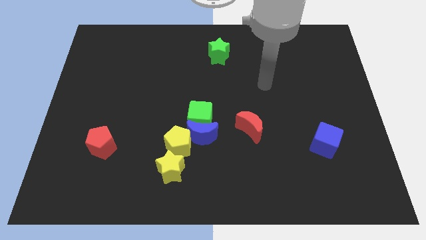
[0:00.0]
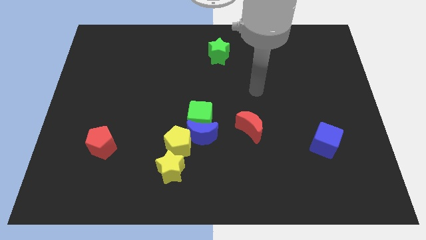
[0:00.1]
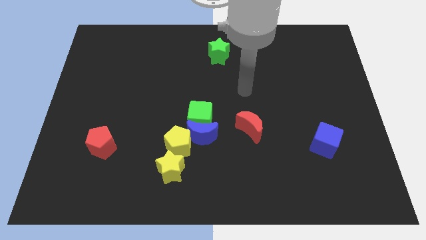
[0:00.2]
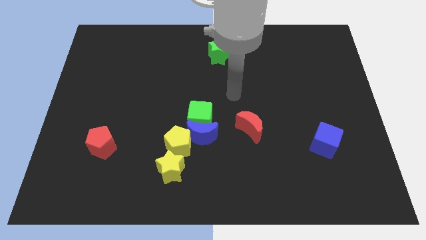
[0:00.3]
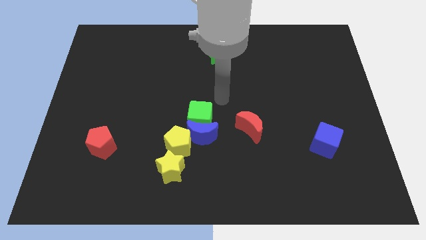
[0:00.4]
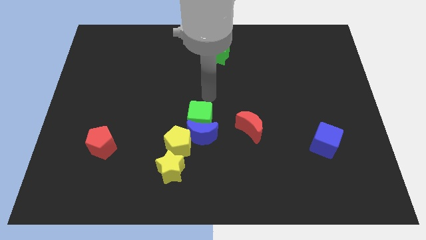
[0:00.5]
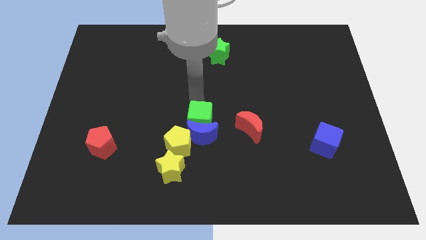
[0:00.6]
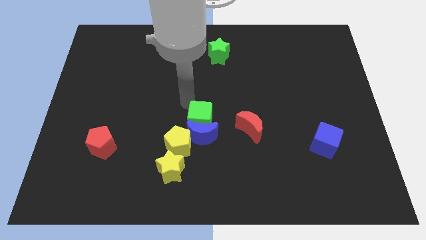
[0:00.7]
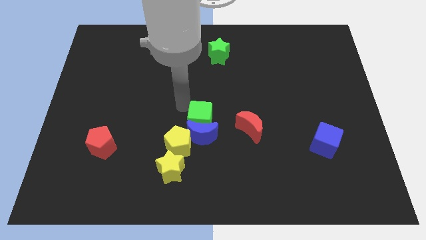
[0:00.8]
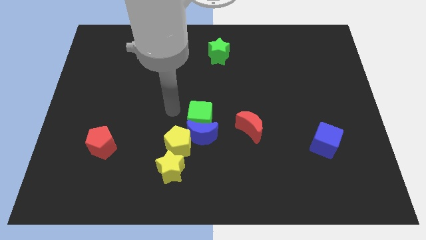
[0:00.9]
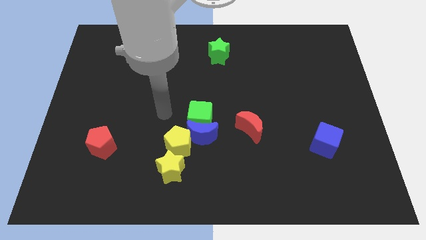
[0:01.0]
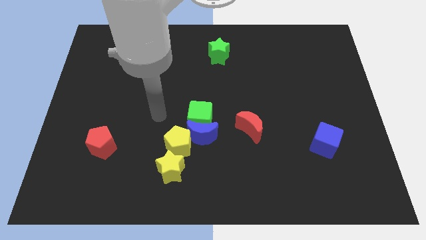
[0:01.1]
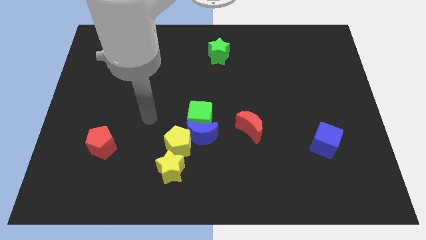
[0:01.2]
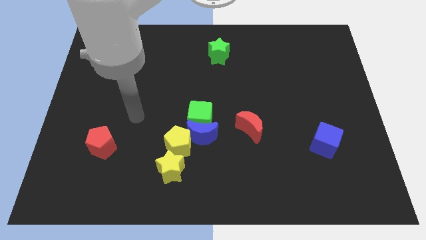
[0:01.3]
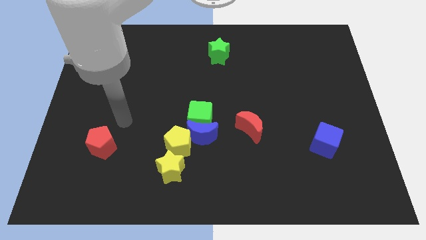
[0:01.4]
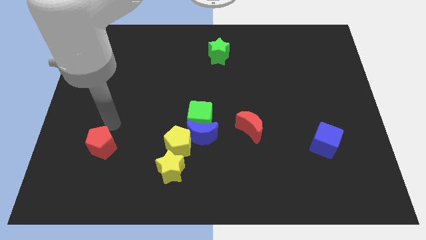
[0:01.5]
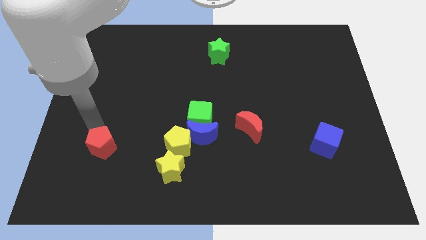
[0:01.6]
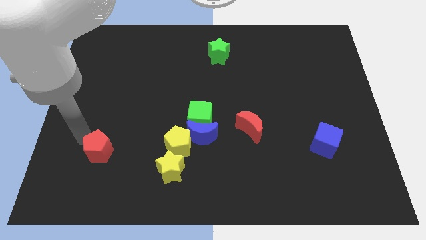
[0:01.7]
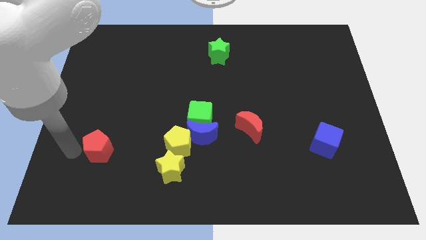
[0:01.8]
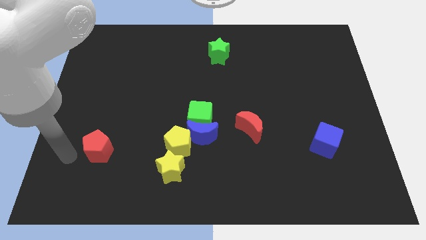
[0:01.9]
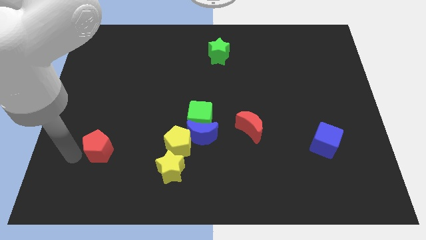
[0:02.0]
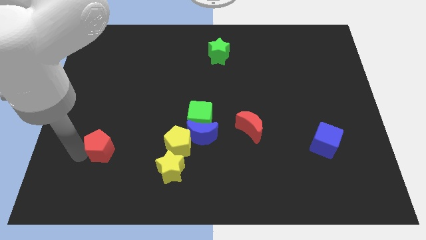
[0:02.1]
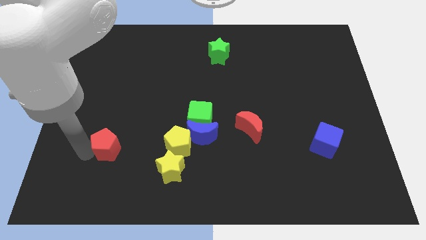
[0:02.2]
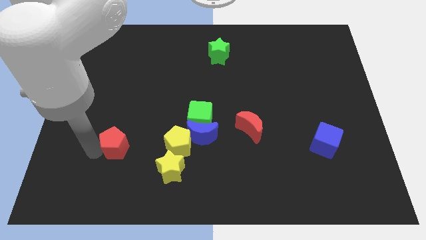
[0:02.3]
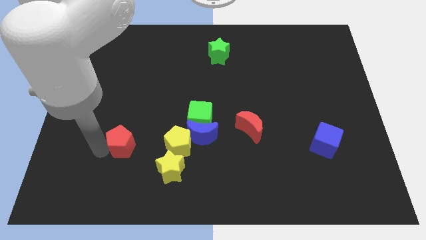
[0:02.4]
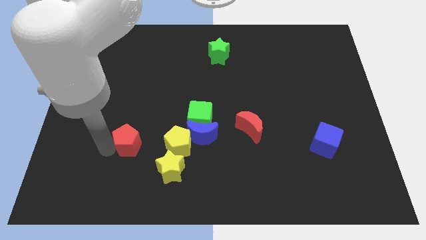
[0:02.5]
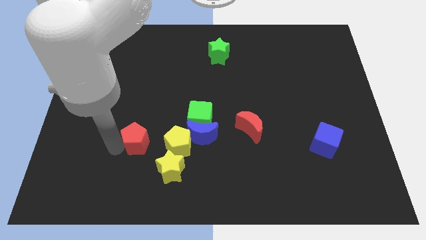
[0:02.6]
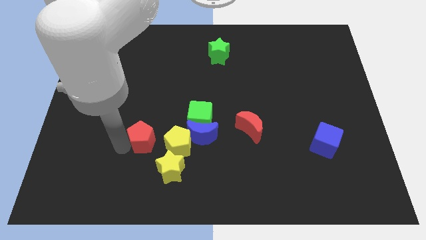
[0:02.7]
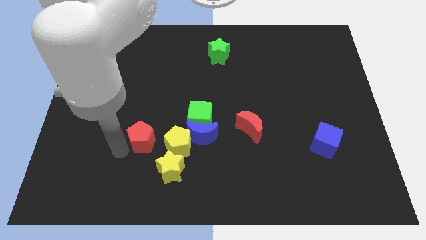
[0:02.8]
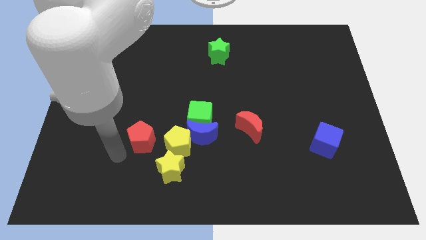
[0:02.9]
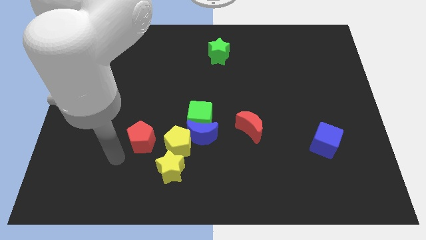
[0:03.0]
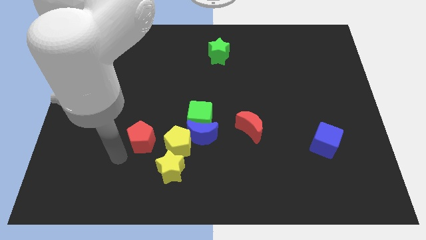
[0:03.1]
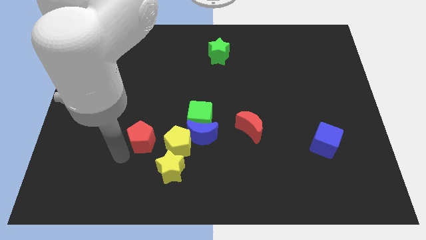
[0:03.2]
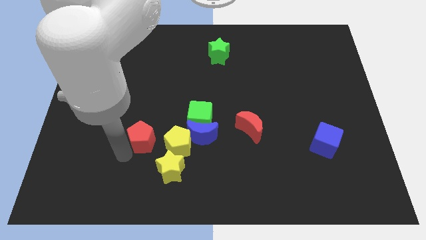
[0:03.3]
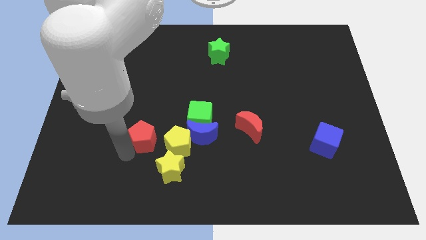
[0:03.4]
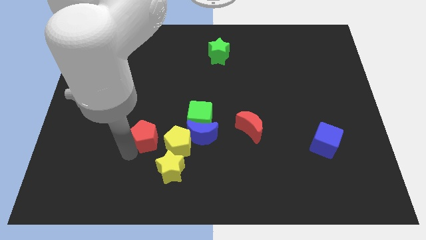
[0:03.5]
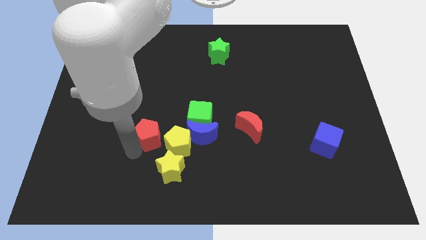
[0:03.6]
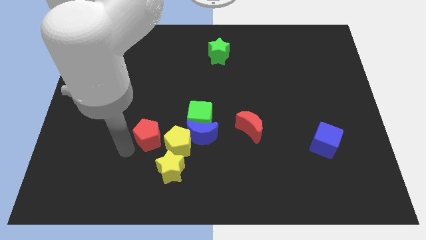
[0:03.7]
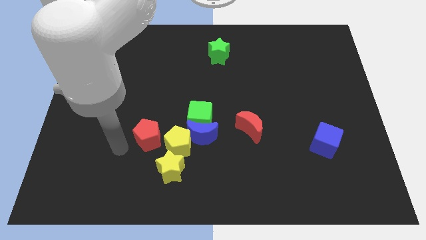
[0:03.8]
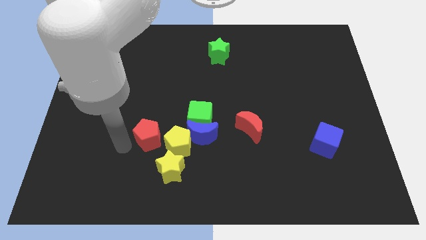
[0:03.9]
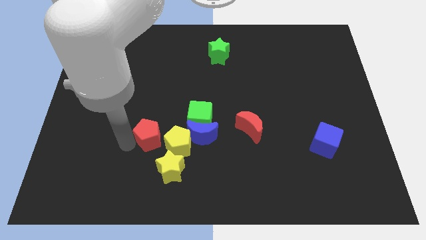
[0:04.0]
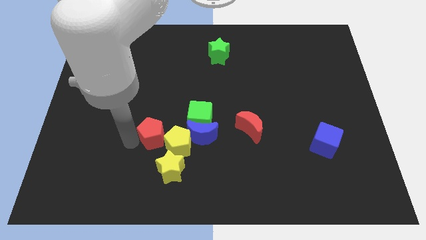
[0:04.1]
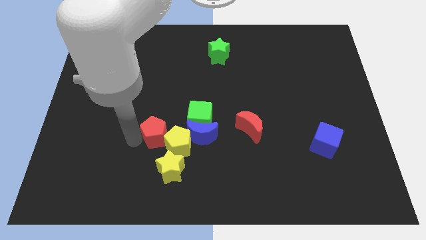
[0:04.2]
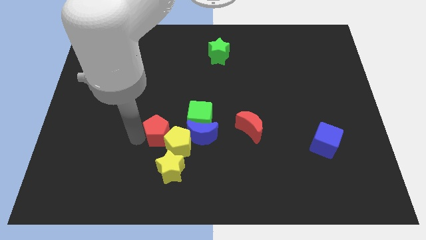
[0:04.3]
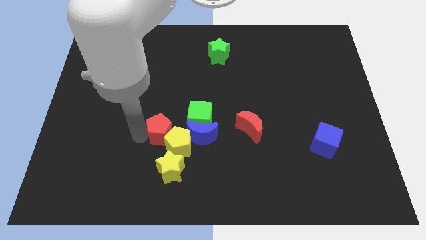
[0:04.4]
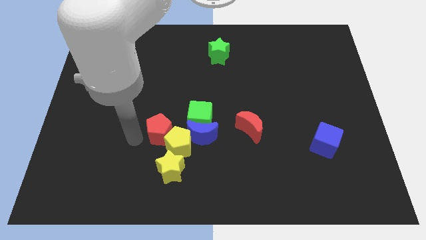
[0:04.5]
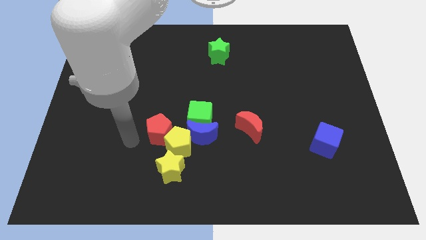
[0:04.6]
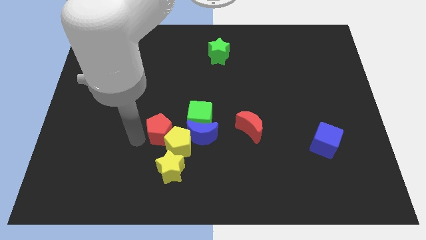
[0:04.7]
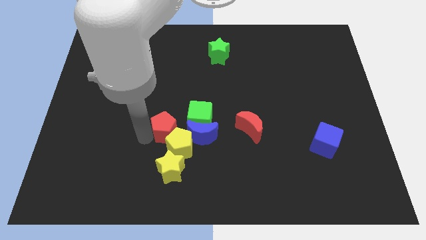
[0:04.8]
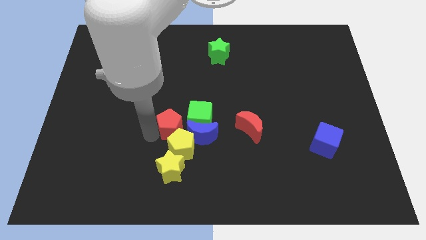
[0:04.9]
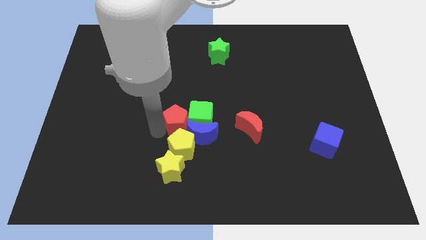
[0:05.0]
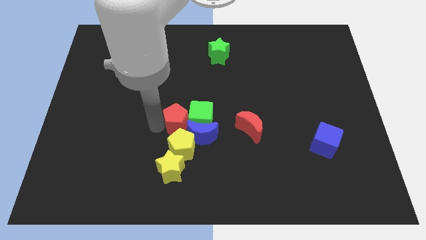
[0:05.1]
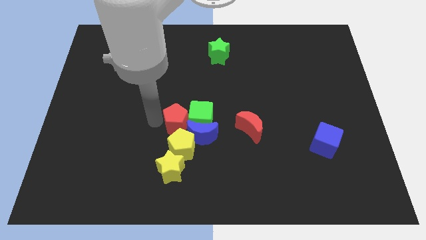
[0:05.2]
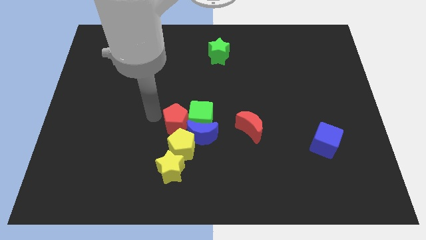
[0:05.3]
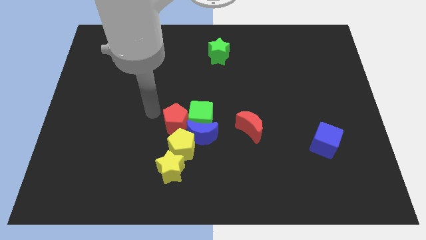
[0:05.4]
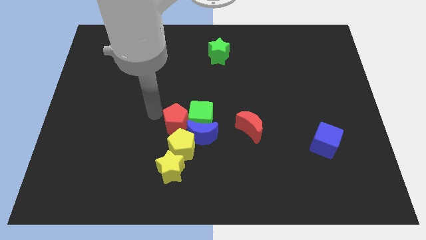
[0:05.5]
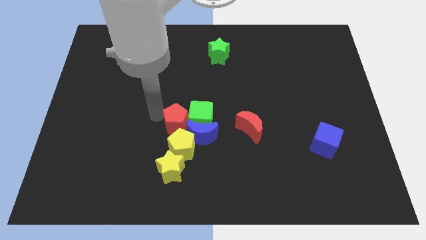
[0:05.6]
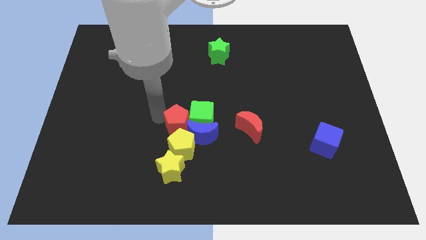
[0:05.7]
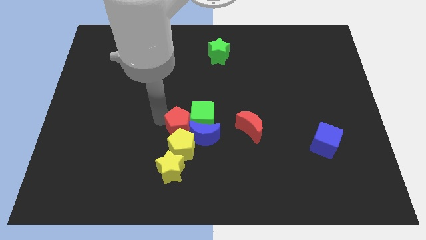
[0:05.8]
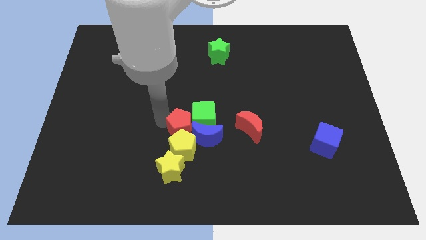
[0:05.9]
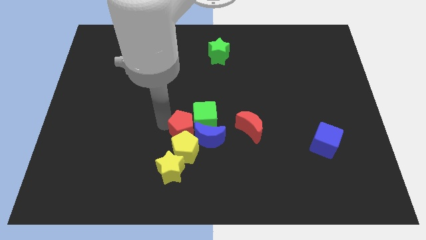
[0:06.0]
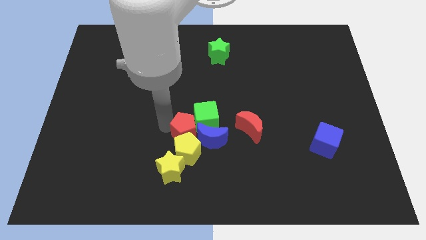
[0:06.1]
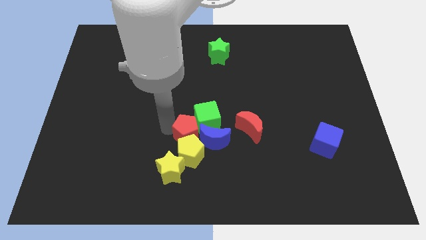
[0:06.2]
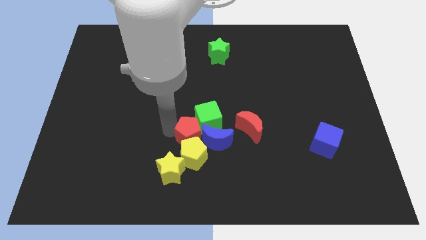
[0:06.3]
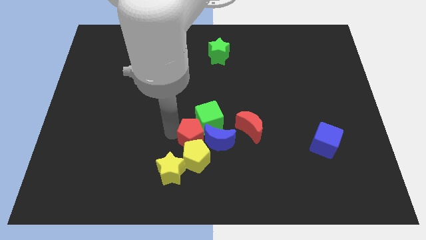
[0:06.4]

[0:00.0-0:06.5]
put the red pentagon to the blue moon

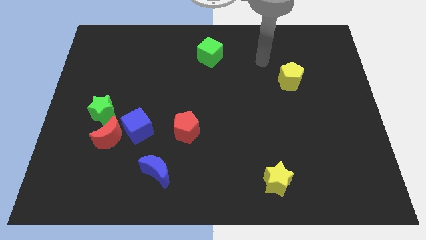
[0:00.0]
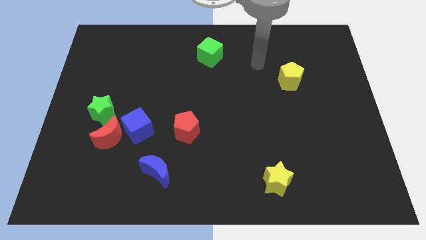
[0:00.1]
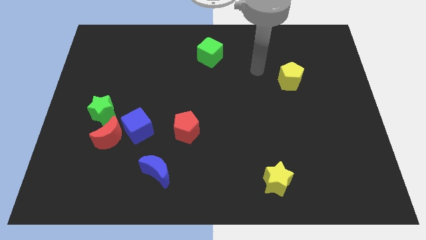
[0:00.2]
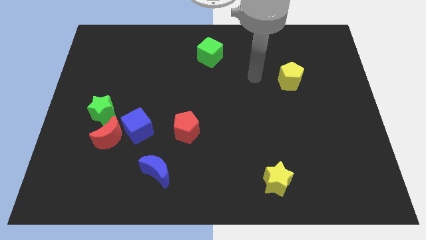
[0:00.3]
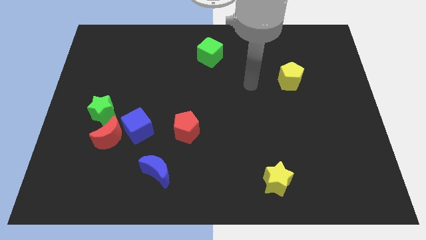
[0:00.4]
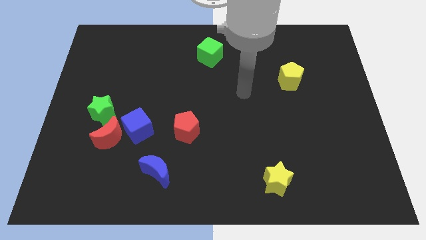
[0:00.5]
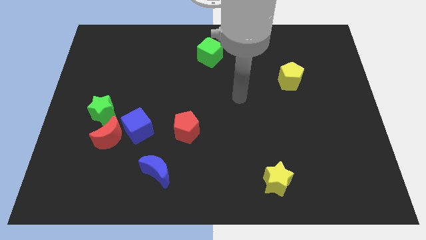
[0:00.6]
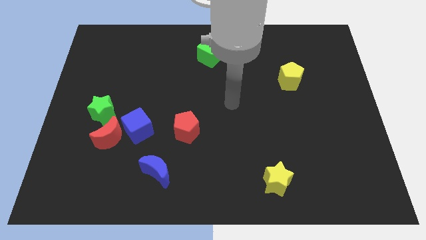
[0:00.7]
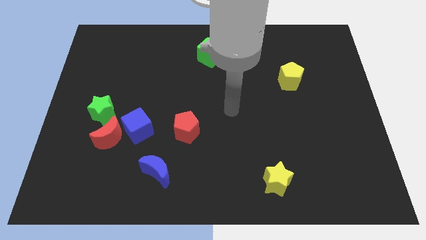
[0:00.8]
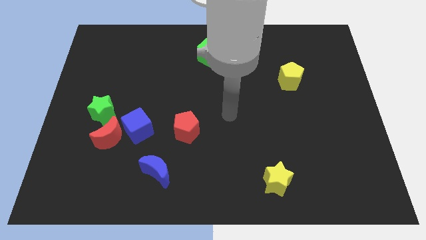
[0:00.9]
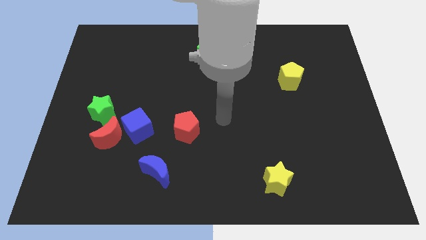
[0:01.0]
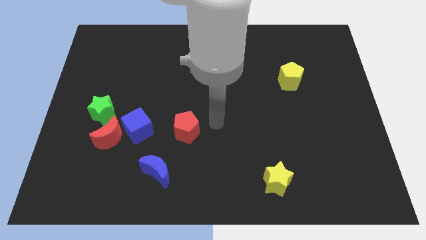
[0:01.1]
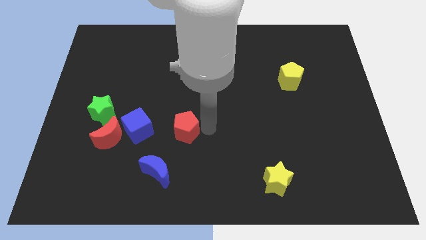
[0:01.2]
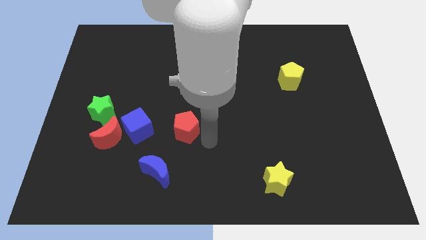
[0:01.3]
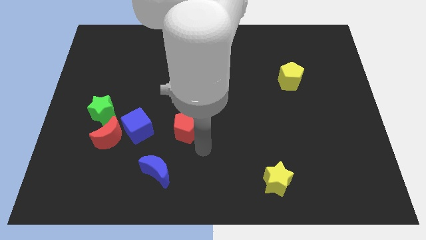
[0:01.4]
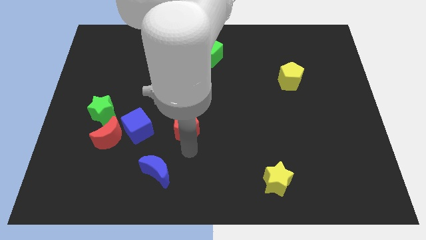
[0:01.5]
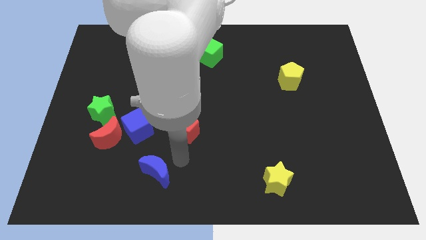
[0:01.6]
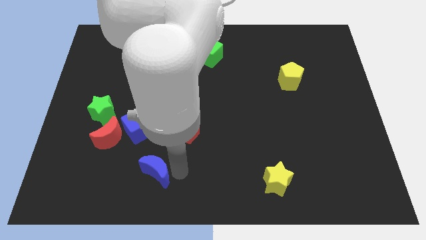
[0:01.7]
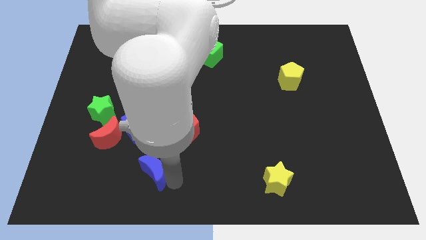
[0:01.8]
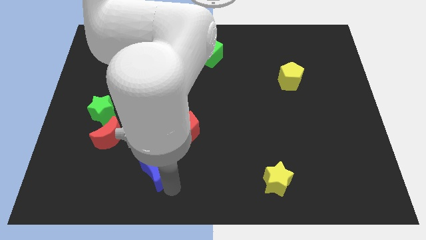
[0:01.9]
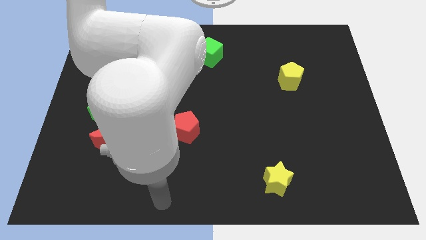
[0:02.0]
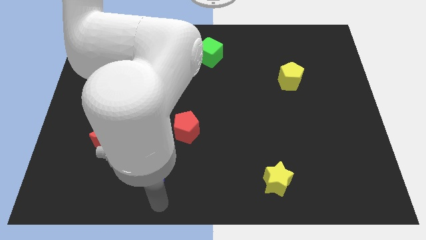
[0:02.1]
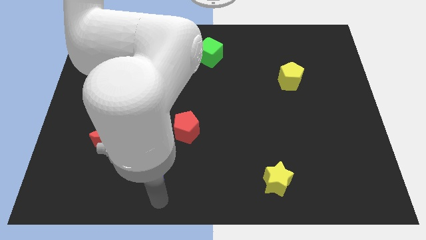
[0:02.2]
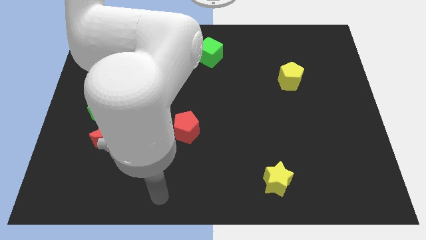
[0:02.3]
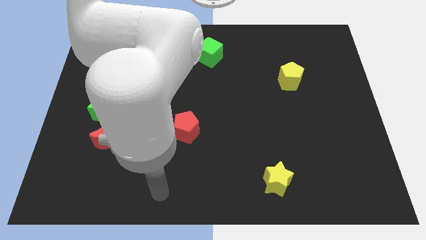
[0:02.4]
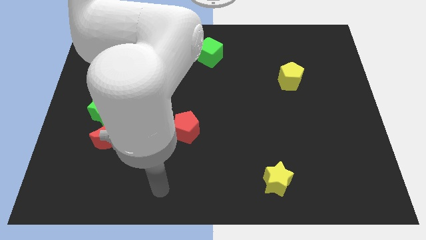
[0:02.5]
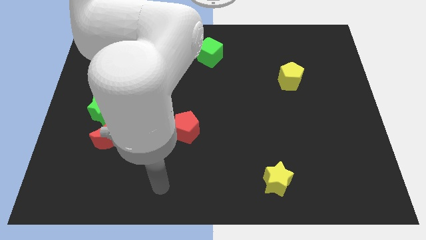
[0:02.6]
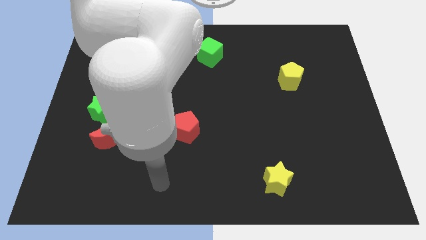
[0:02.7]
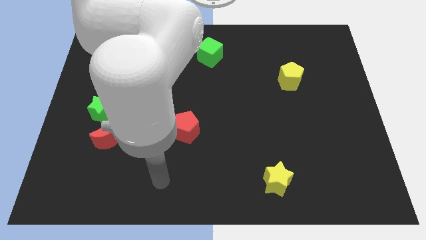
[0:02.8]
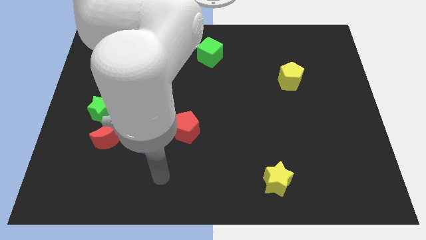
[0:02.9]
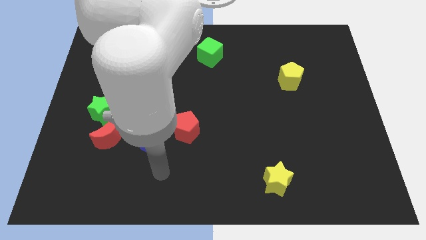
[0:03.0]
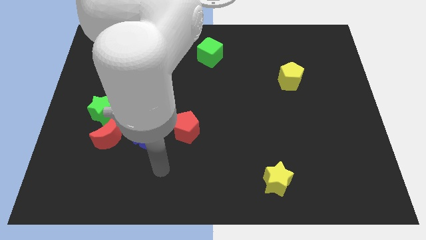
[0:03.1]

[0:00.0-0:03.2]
put the blue moon towards the blue cube
